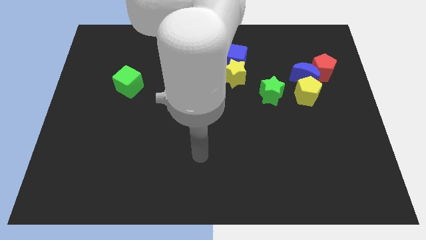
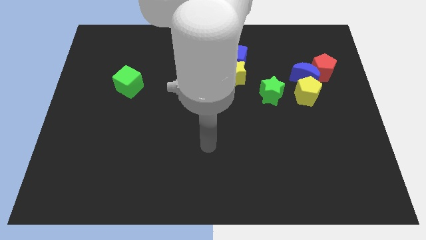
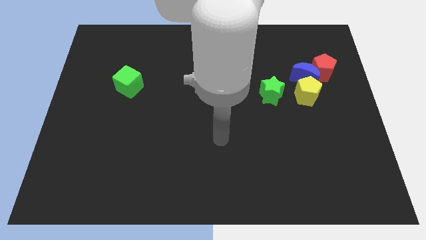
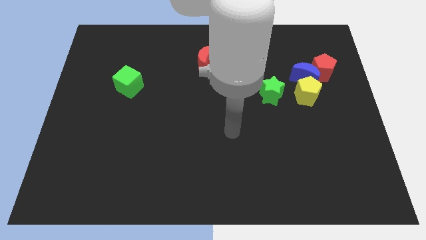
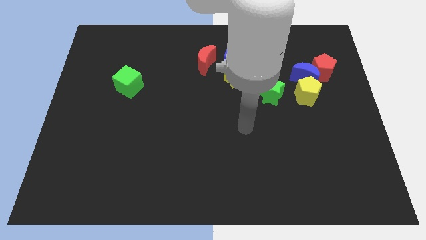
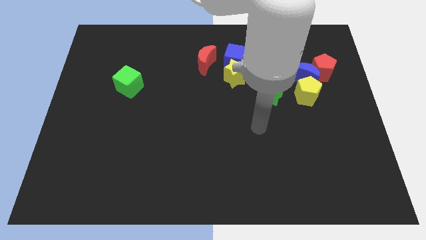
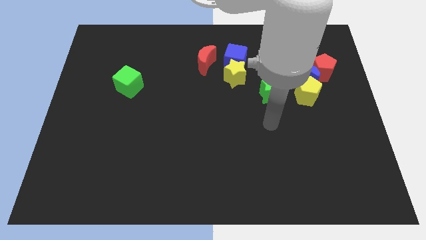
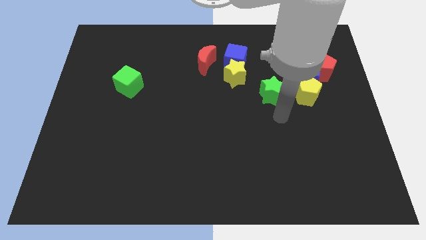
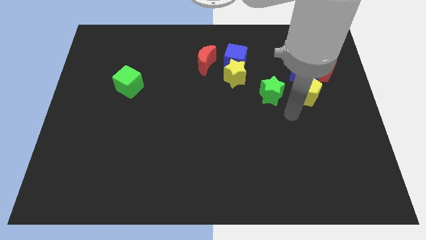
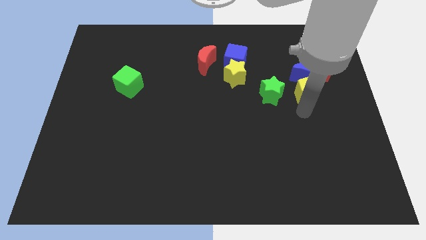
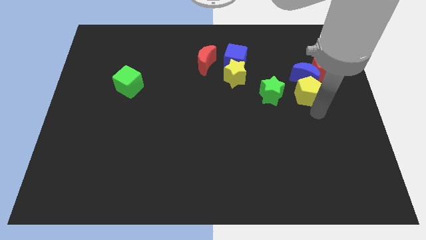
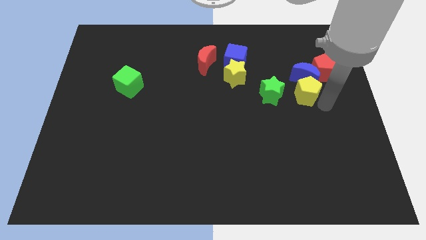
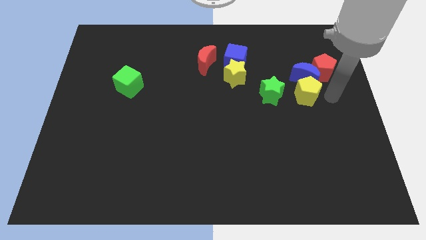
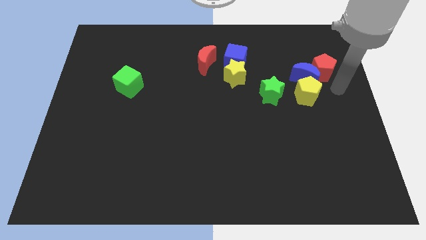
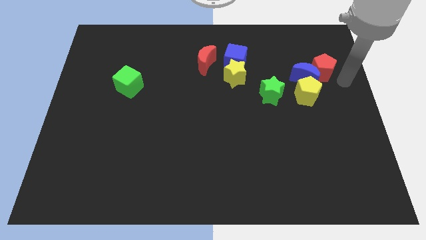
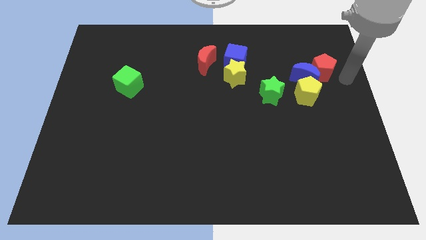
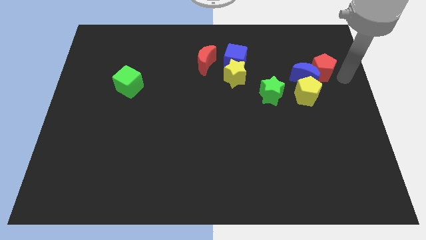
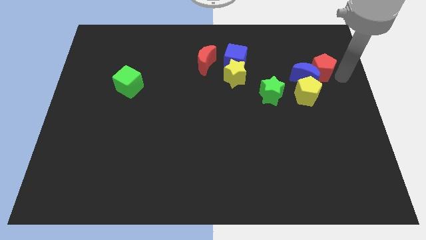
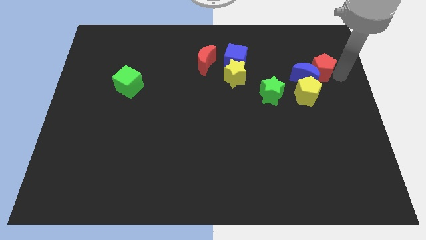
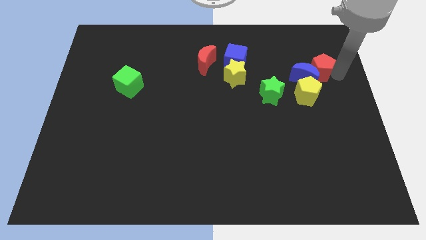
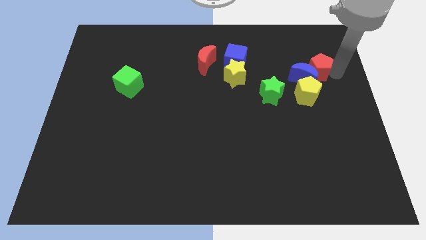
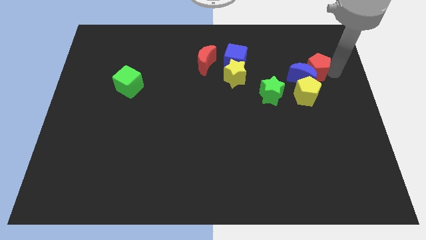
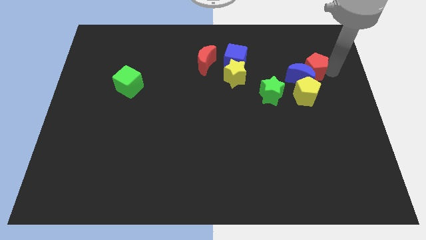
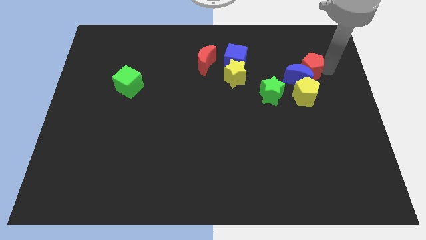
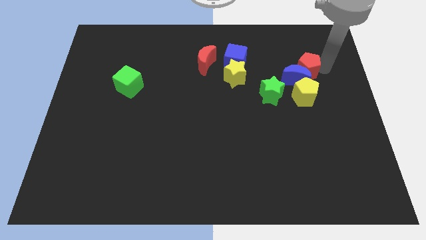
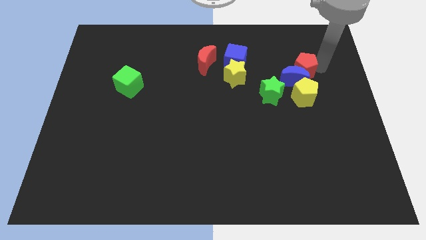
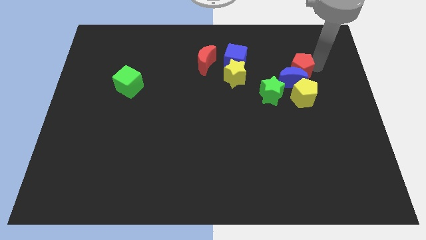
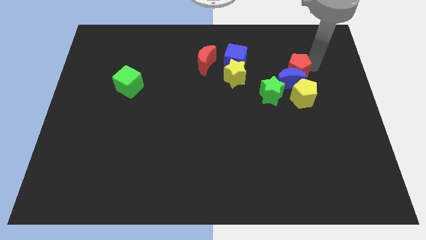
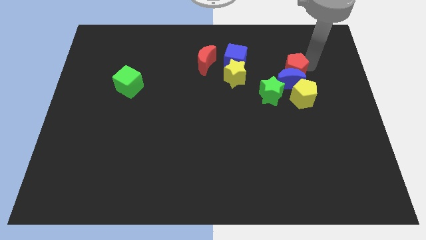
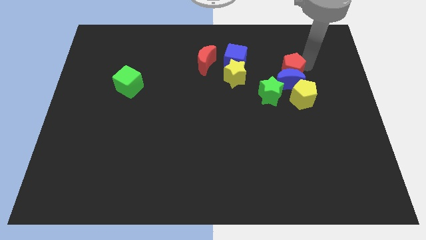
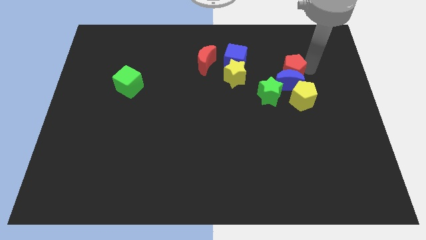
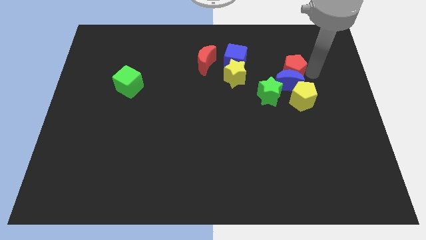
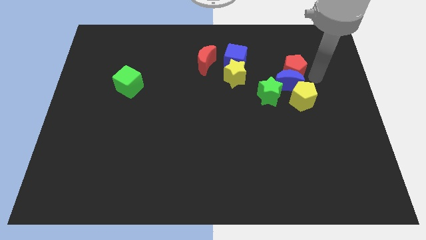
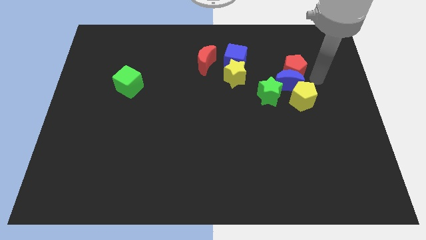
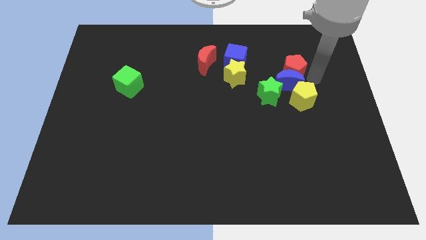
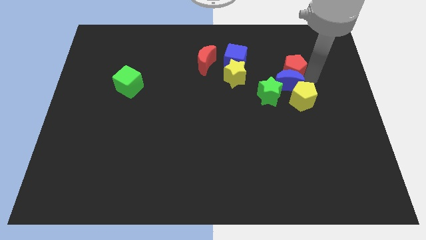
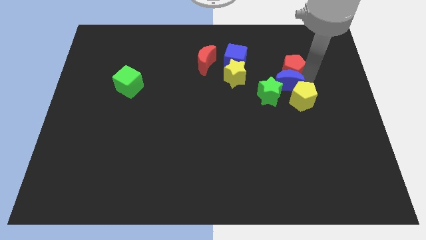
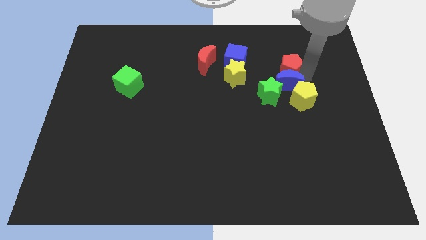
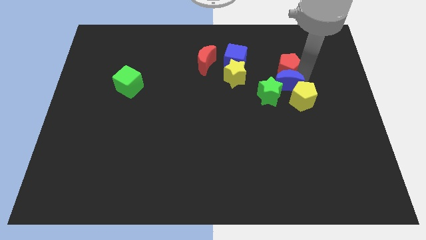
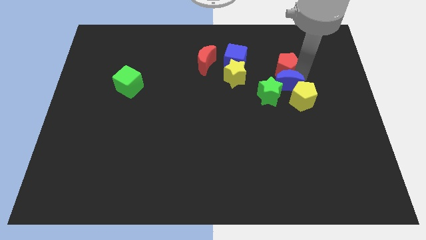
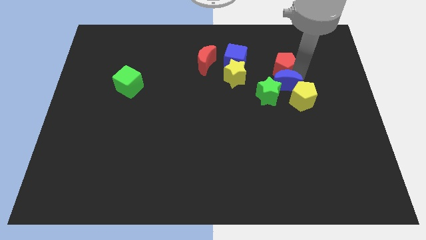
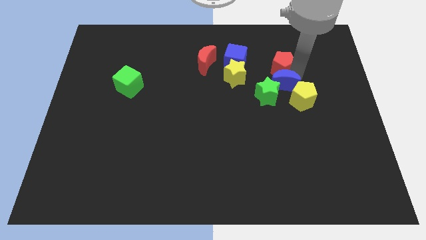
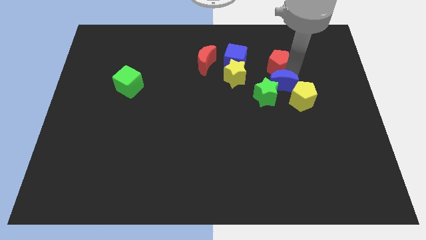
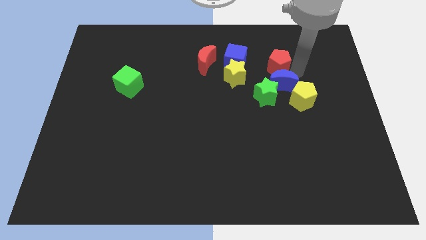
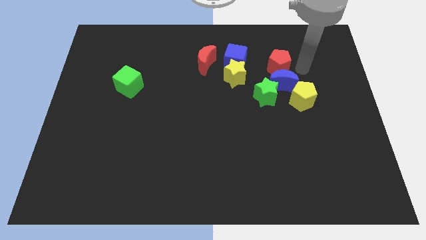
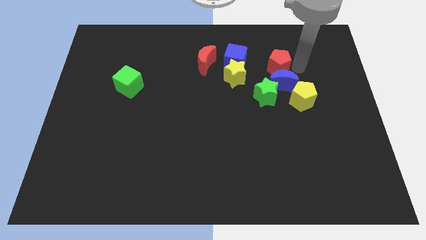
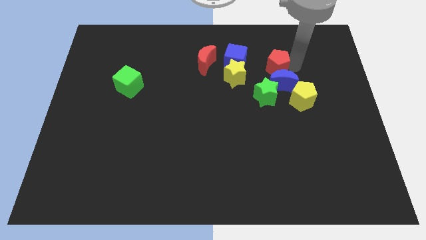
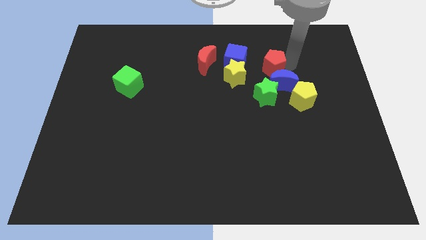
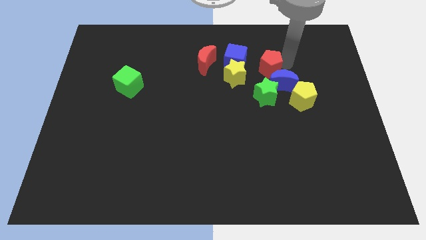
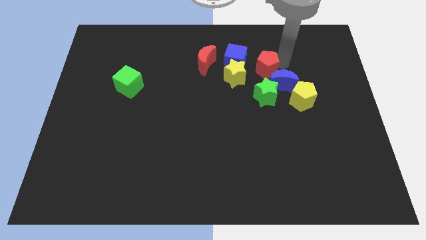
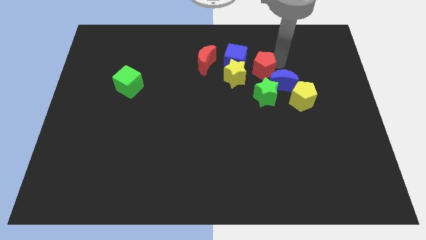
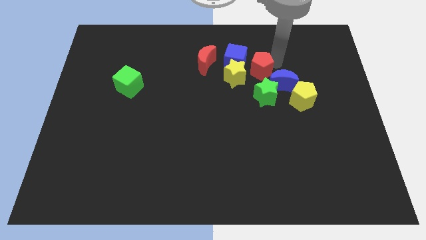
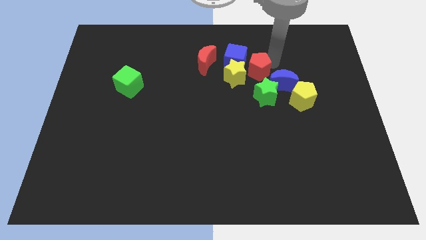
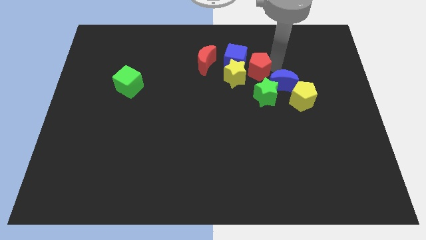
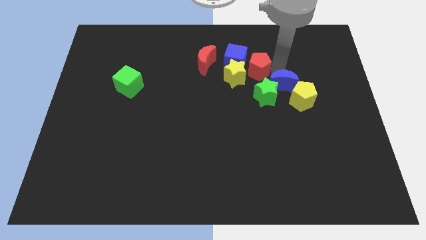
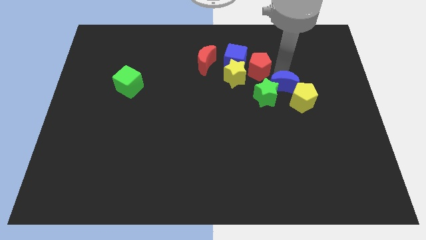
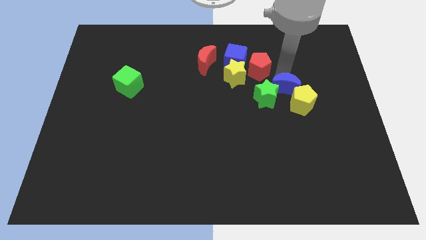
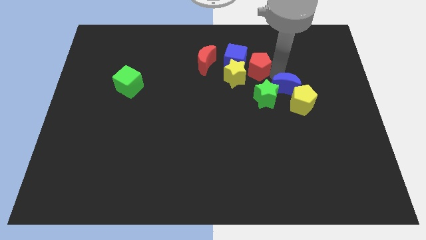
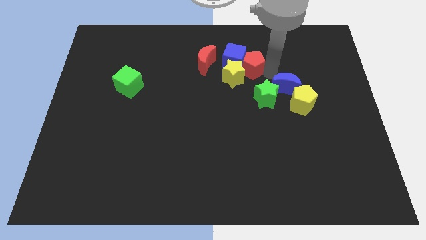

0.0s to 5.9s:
move the red pentagon next to the blue cube

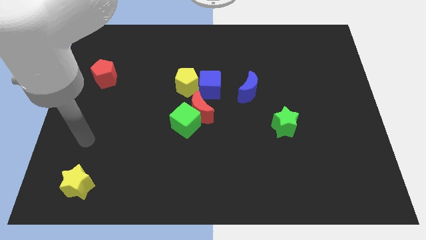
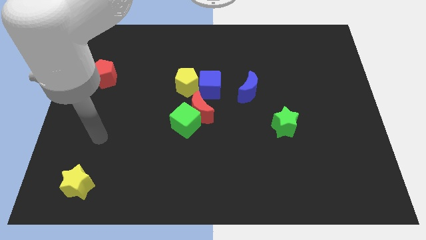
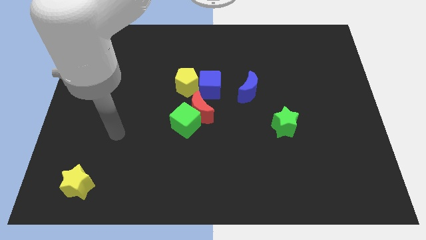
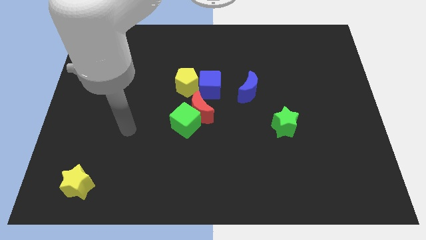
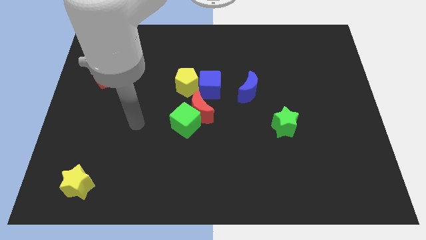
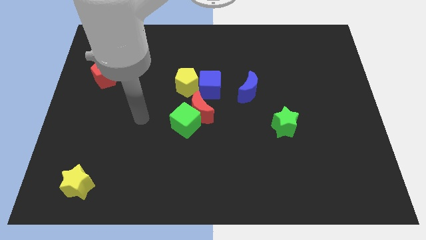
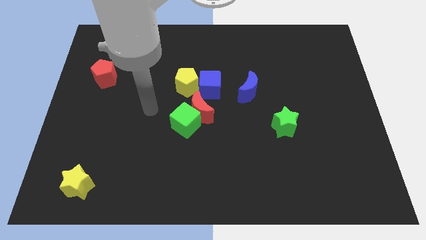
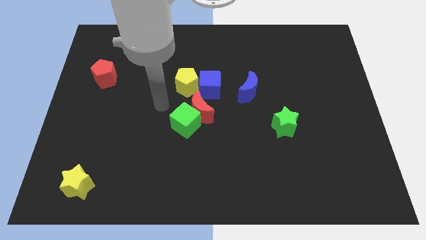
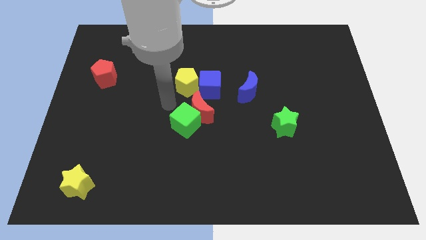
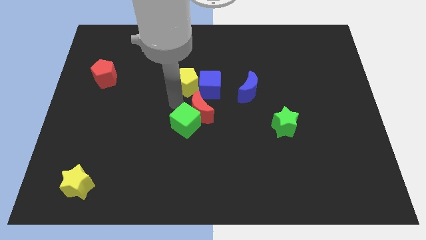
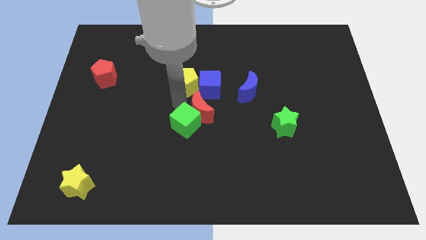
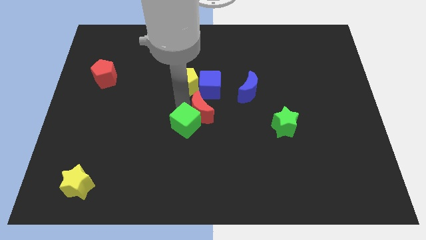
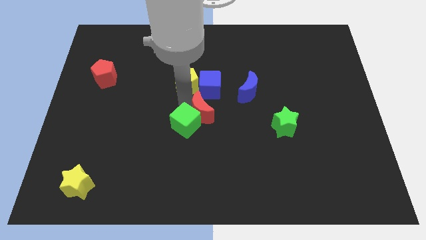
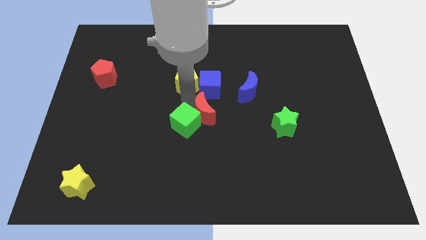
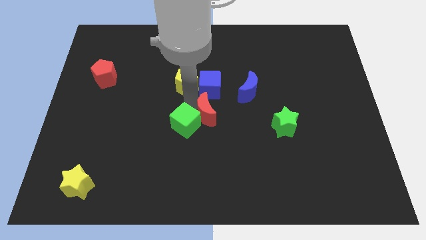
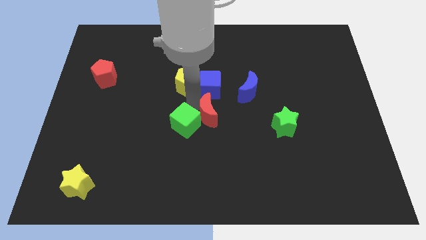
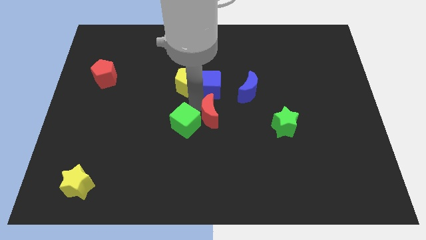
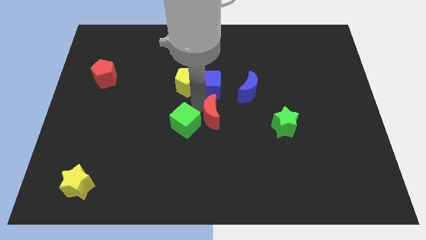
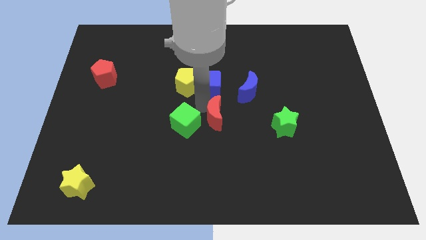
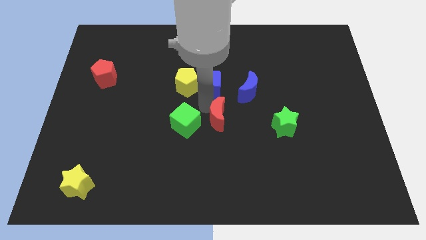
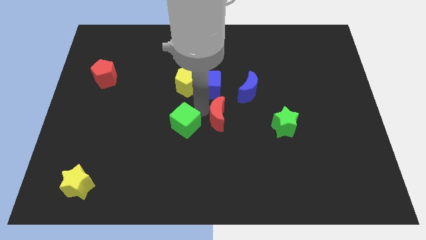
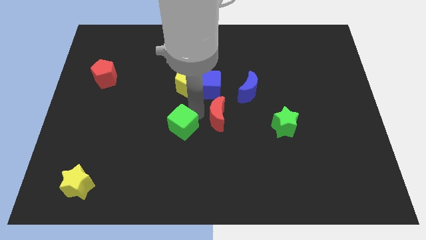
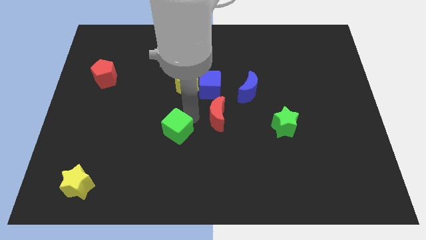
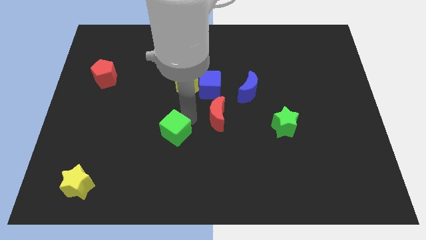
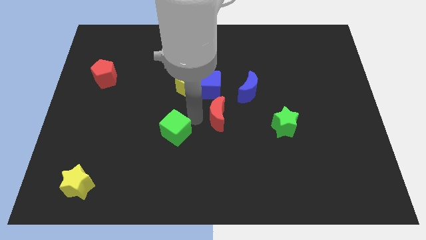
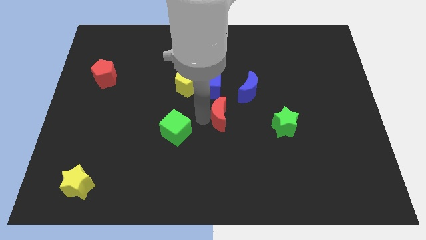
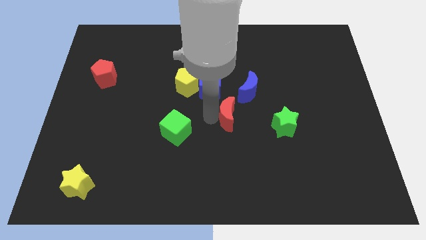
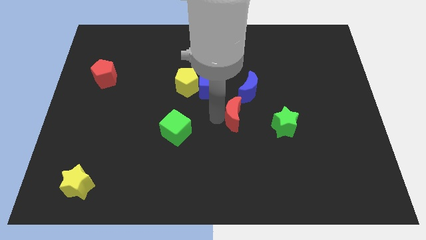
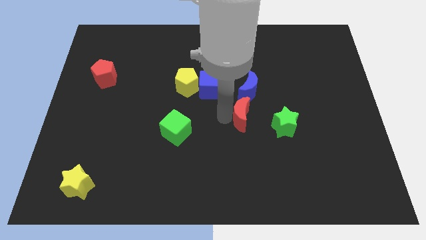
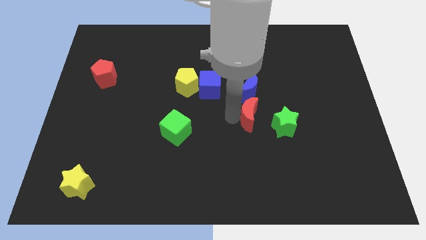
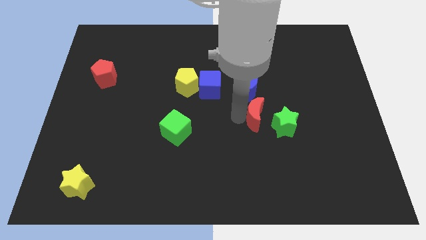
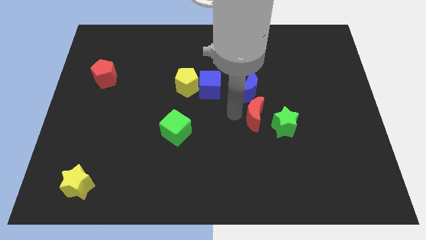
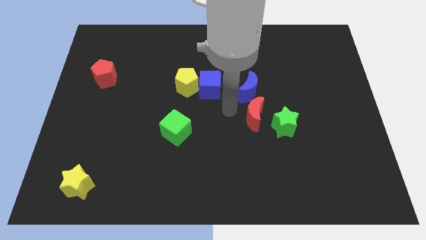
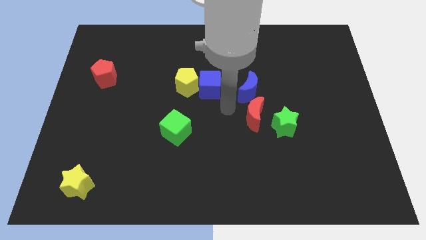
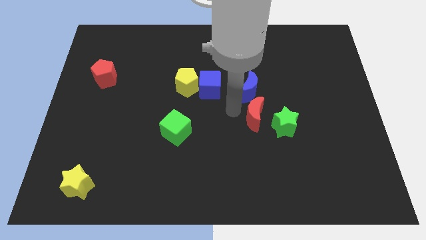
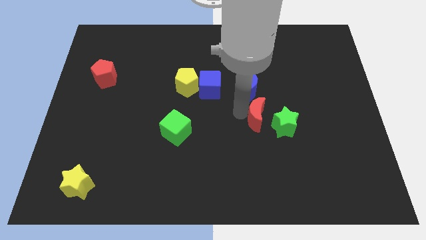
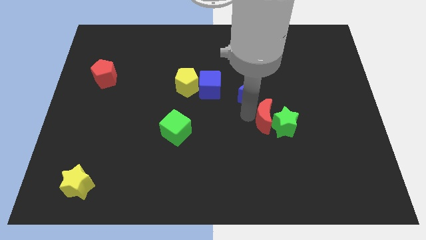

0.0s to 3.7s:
push the red moon to the green star
